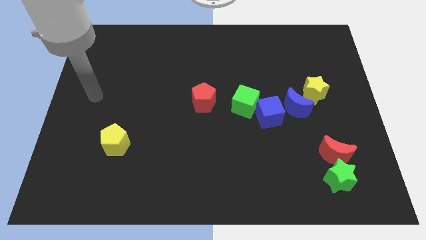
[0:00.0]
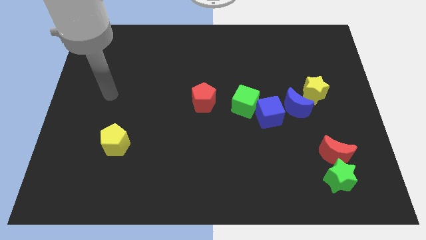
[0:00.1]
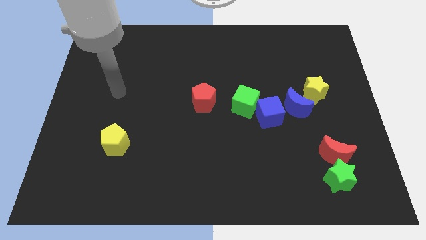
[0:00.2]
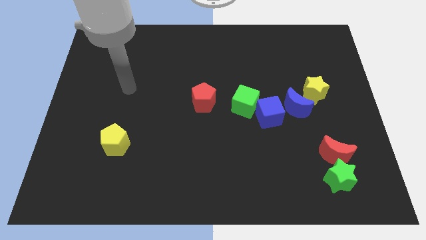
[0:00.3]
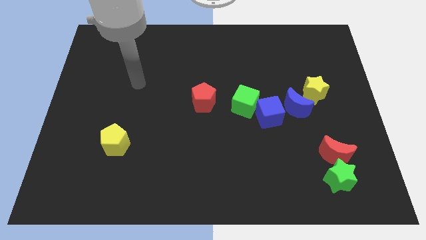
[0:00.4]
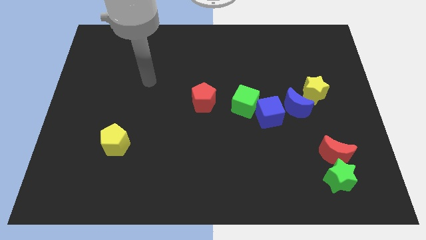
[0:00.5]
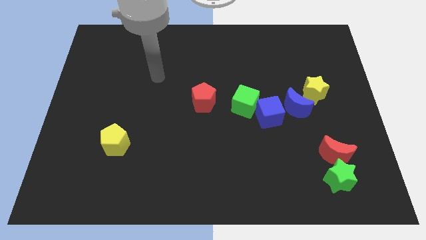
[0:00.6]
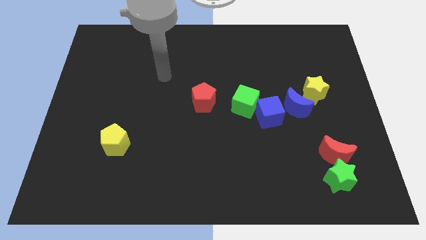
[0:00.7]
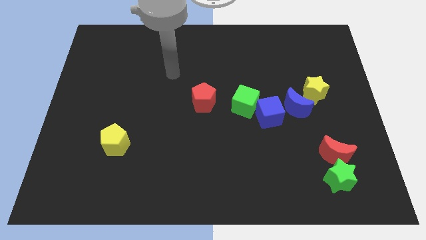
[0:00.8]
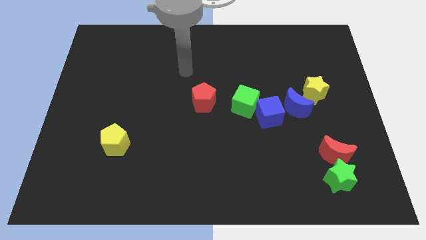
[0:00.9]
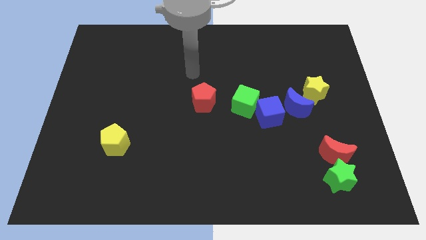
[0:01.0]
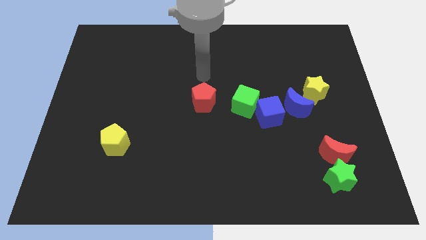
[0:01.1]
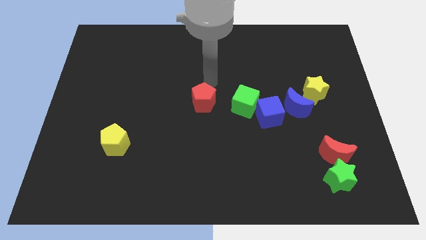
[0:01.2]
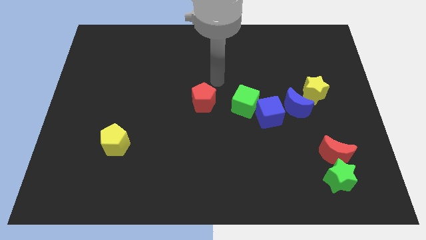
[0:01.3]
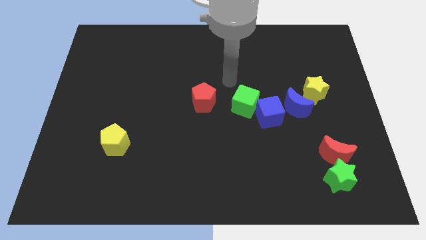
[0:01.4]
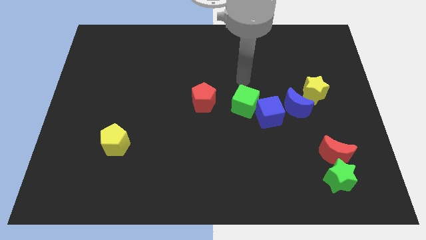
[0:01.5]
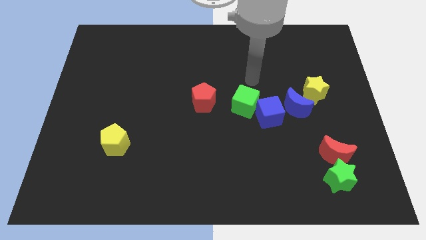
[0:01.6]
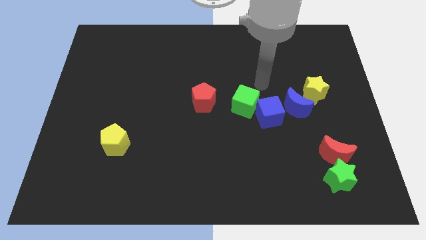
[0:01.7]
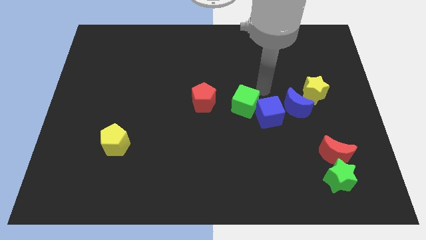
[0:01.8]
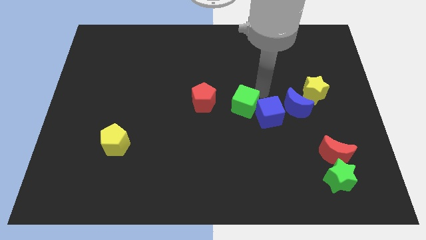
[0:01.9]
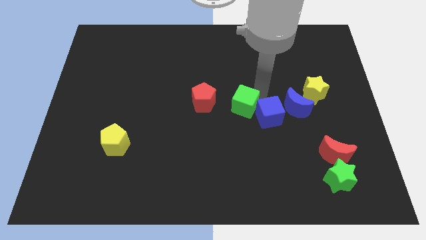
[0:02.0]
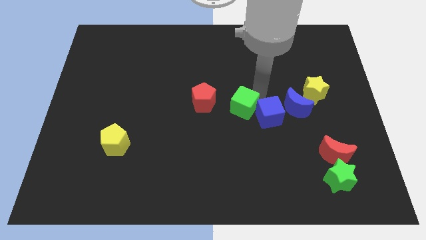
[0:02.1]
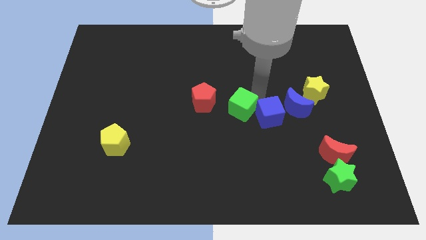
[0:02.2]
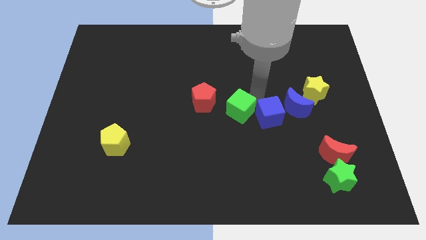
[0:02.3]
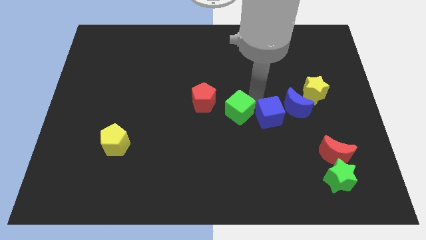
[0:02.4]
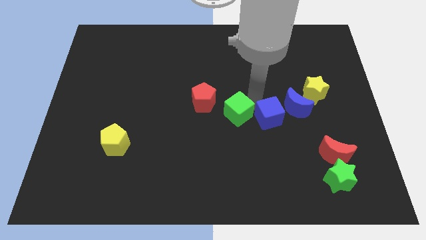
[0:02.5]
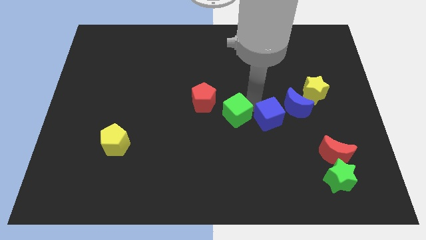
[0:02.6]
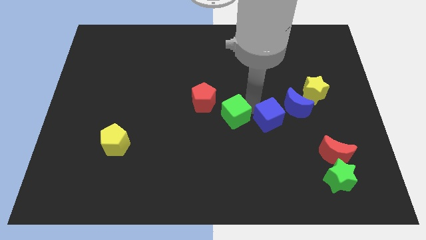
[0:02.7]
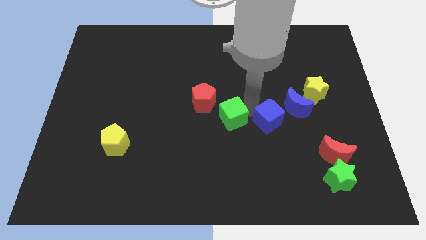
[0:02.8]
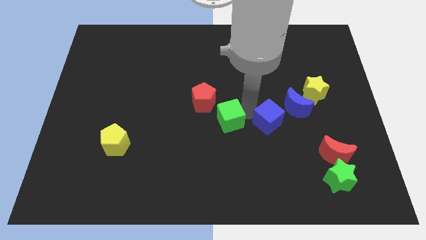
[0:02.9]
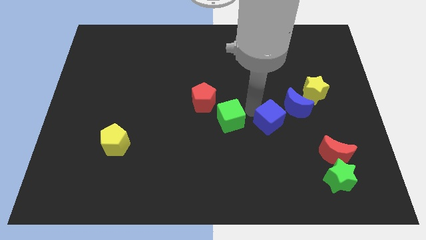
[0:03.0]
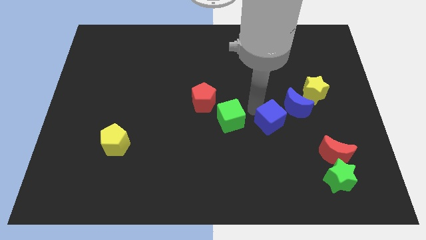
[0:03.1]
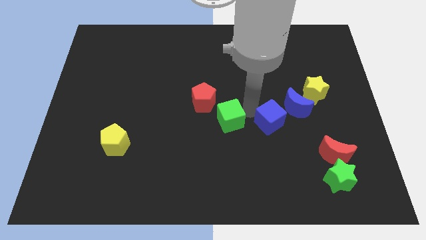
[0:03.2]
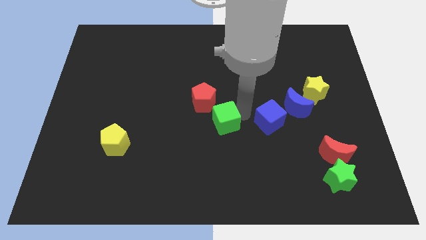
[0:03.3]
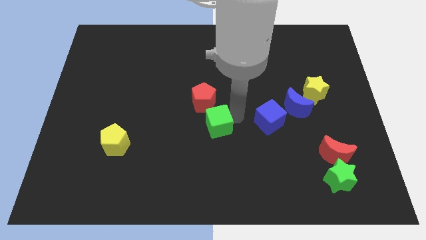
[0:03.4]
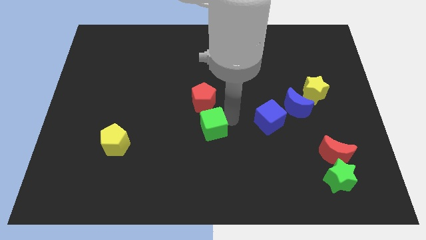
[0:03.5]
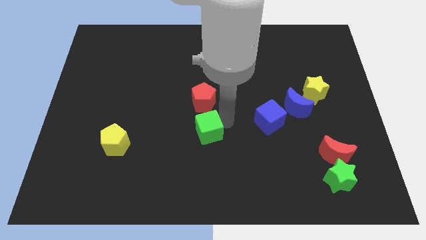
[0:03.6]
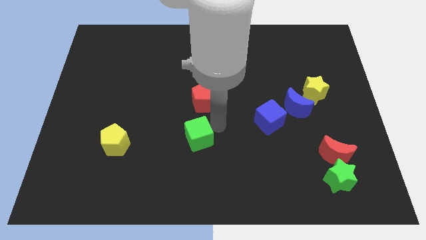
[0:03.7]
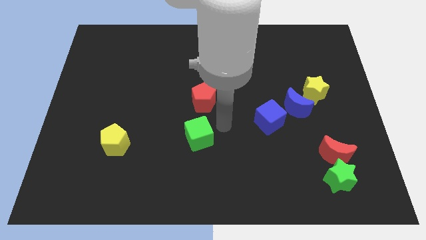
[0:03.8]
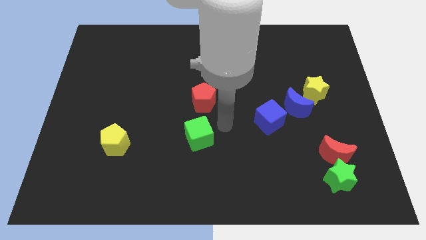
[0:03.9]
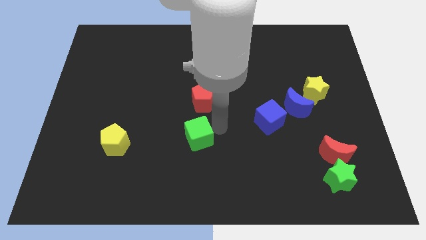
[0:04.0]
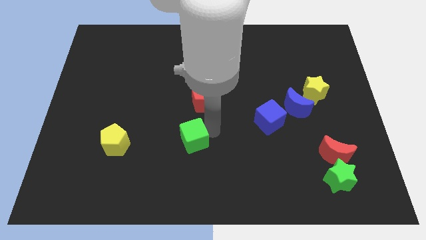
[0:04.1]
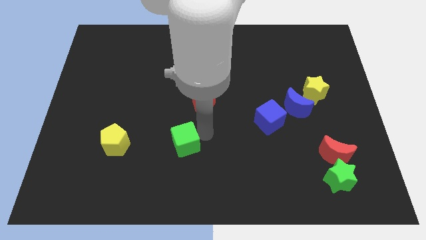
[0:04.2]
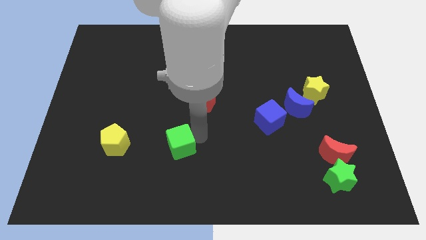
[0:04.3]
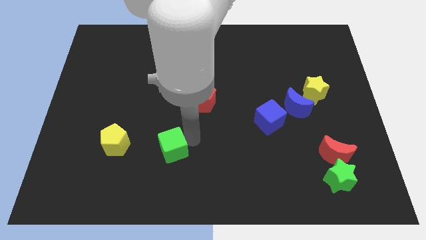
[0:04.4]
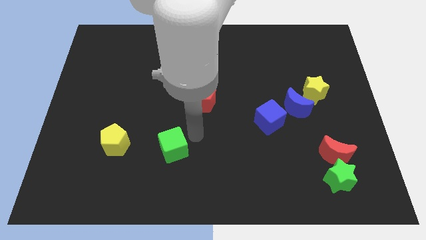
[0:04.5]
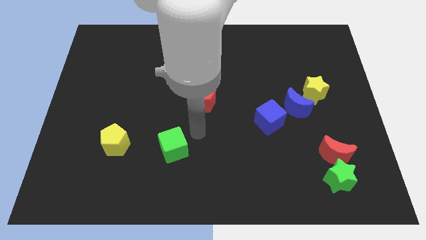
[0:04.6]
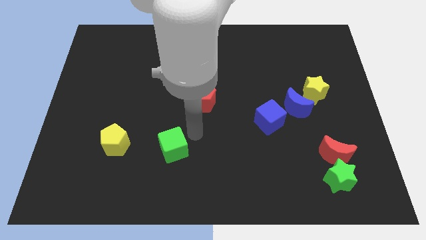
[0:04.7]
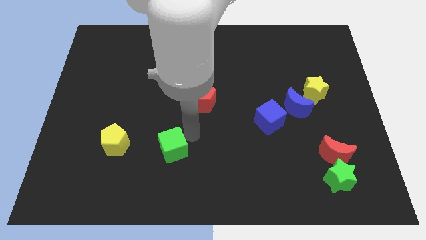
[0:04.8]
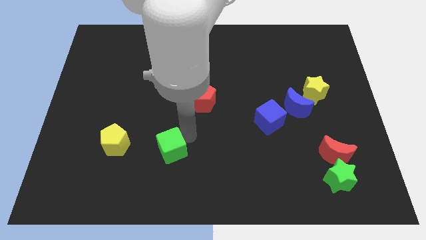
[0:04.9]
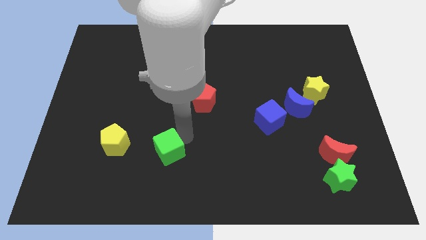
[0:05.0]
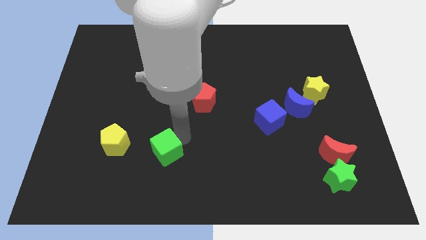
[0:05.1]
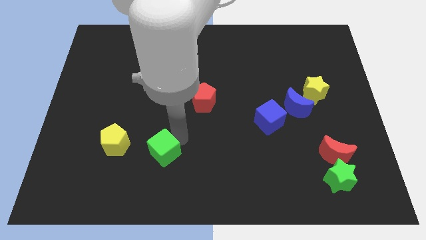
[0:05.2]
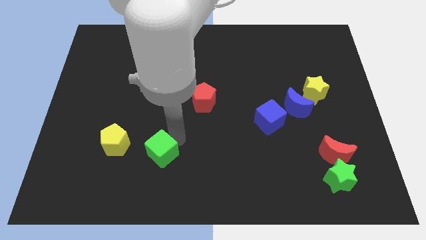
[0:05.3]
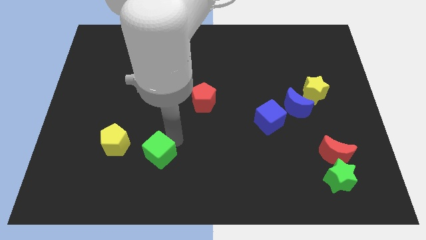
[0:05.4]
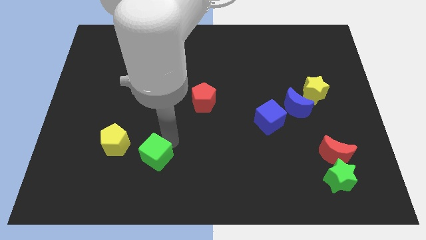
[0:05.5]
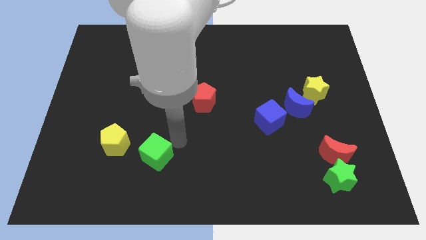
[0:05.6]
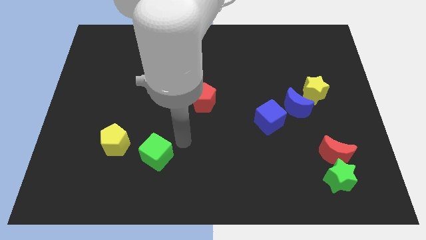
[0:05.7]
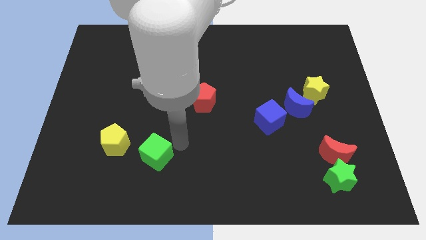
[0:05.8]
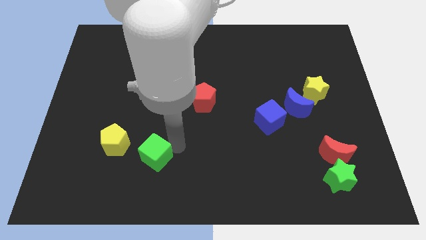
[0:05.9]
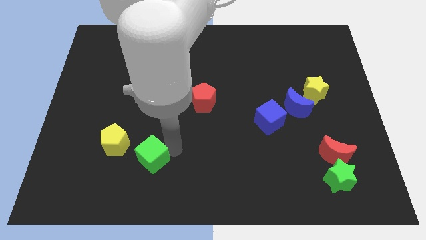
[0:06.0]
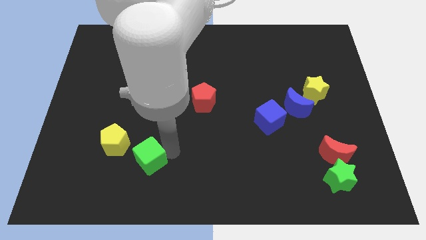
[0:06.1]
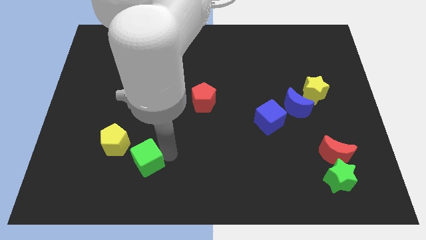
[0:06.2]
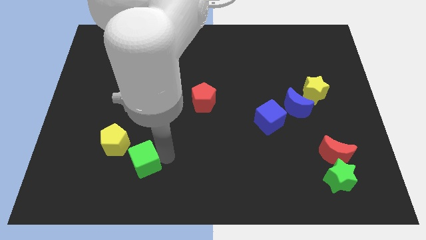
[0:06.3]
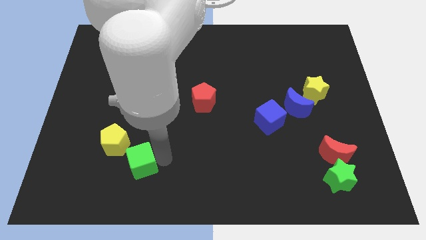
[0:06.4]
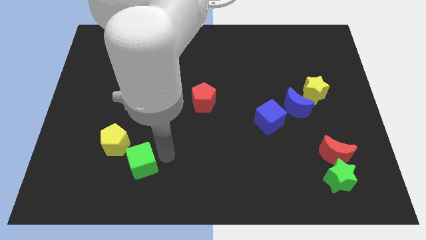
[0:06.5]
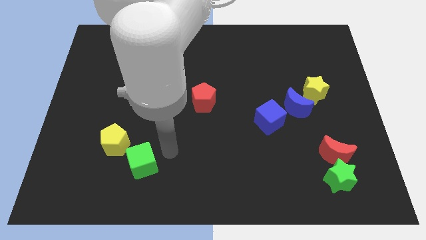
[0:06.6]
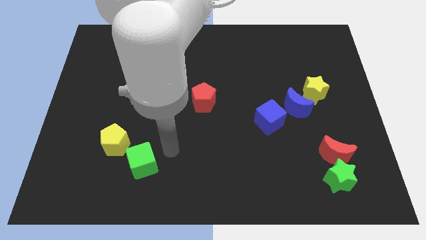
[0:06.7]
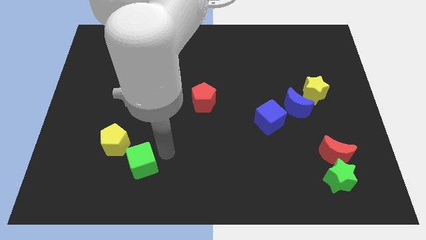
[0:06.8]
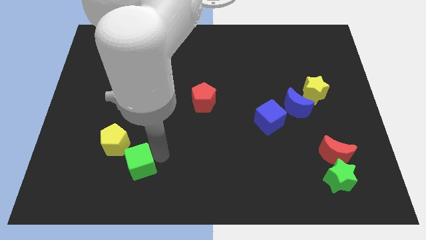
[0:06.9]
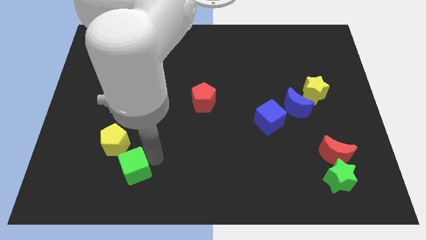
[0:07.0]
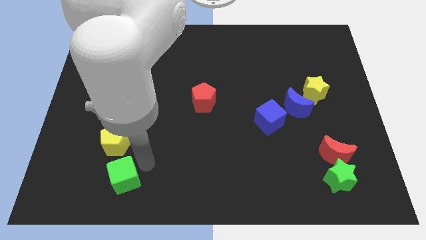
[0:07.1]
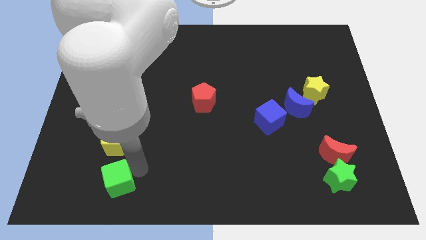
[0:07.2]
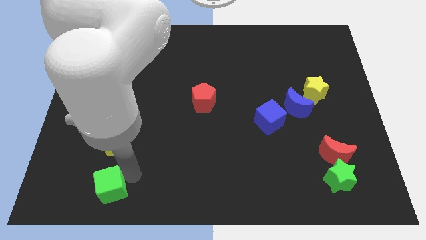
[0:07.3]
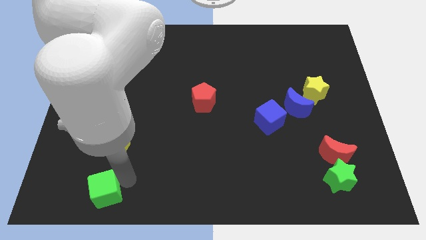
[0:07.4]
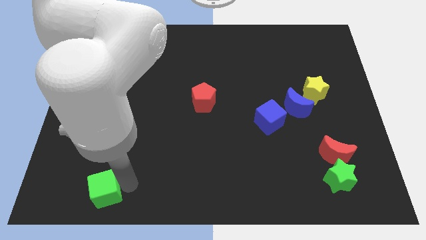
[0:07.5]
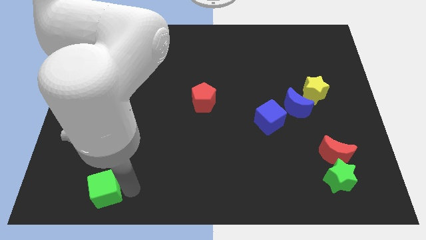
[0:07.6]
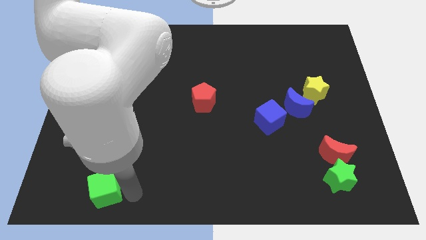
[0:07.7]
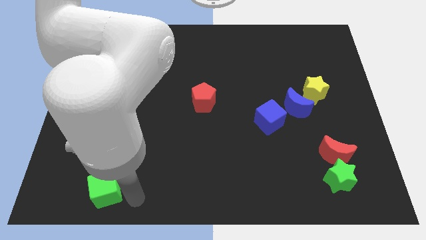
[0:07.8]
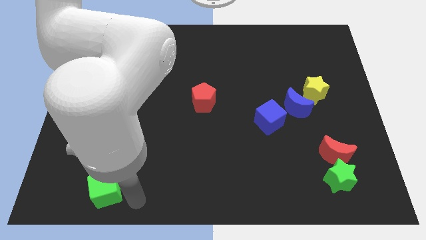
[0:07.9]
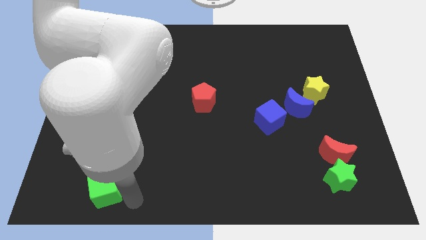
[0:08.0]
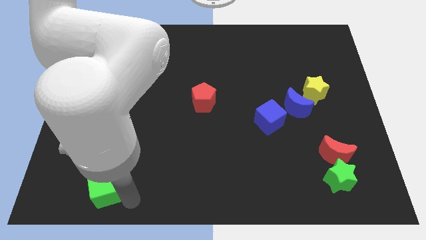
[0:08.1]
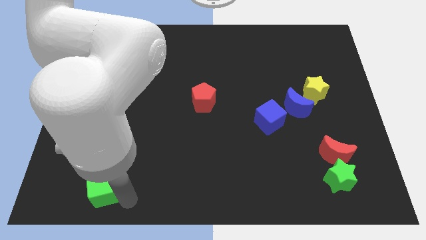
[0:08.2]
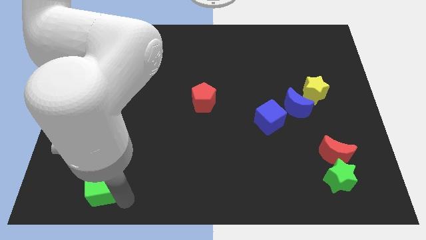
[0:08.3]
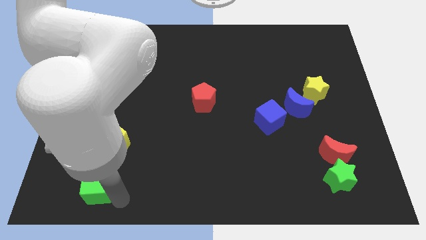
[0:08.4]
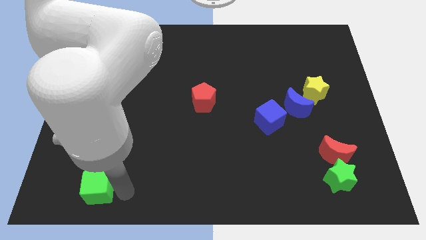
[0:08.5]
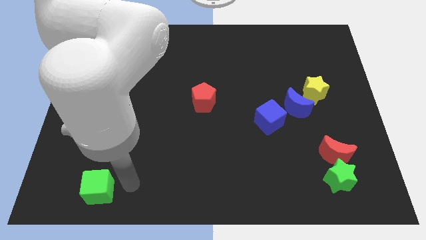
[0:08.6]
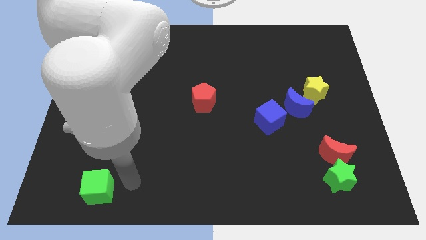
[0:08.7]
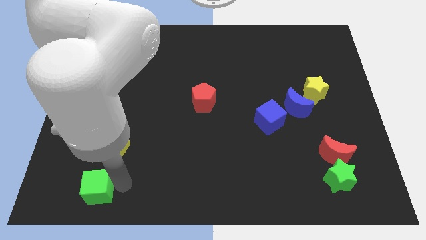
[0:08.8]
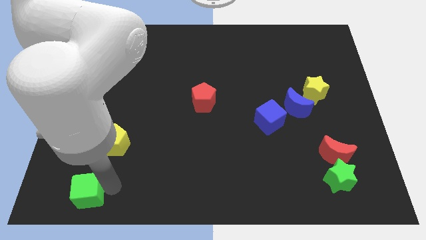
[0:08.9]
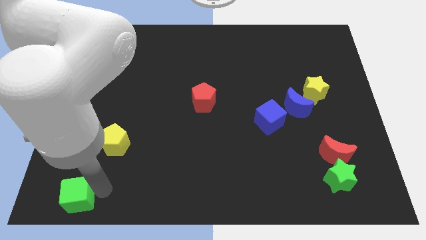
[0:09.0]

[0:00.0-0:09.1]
slide the green cube to the bottom left
